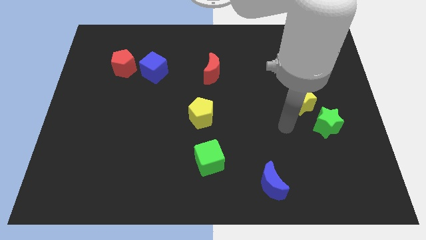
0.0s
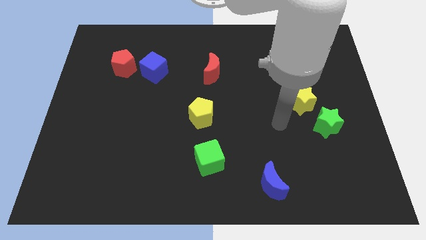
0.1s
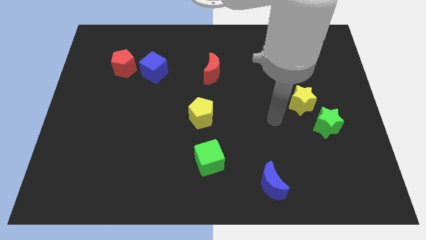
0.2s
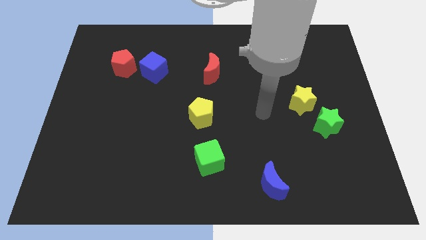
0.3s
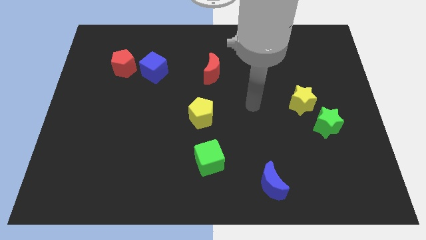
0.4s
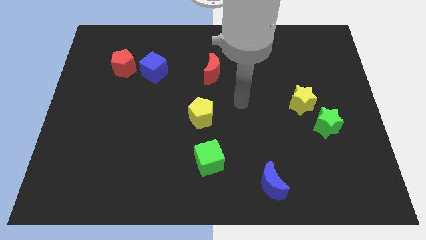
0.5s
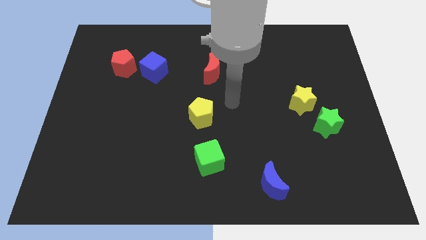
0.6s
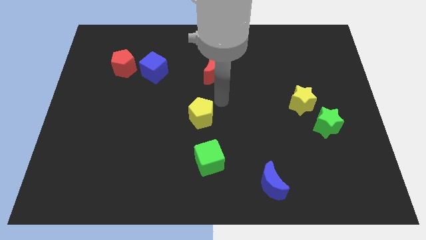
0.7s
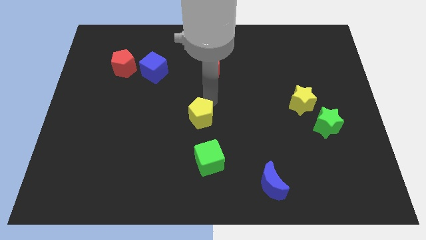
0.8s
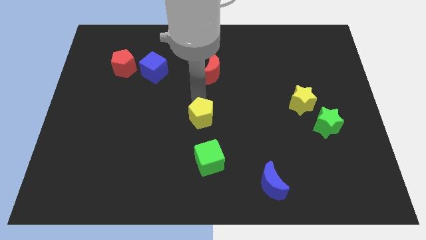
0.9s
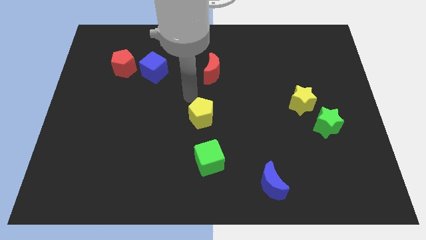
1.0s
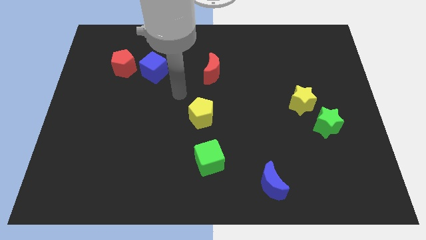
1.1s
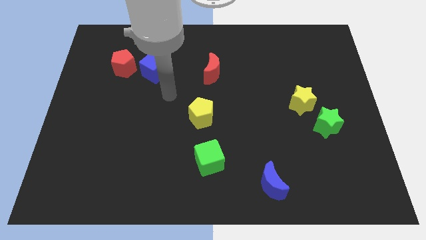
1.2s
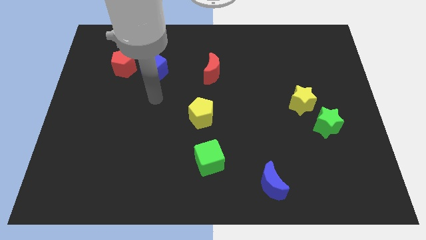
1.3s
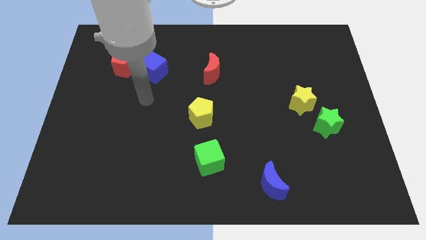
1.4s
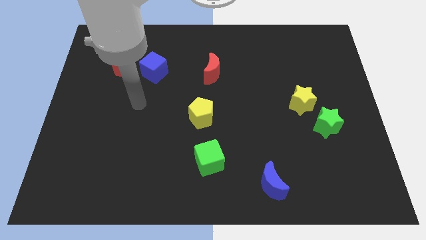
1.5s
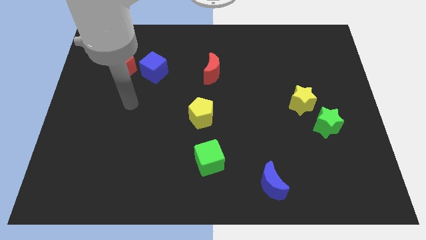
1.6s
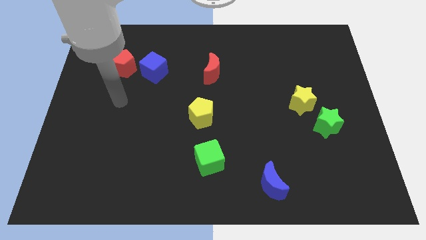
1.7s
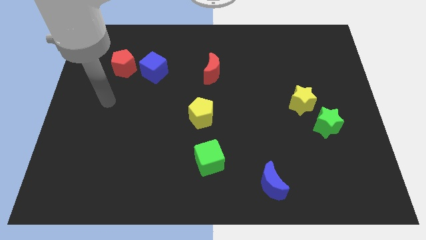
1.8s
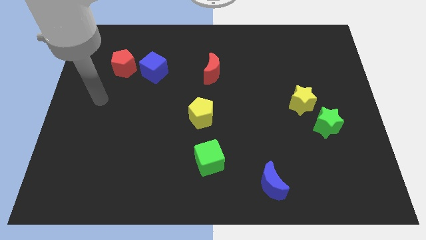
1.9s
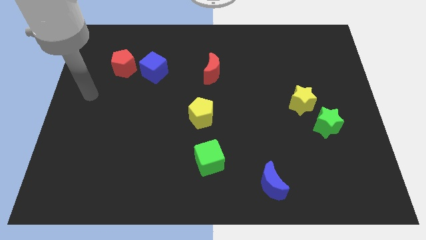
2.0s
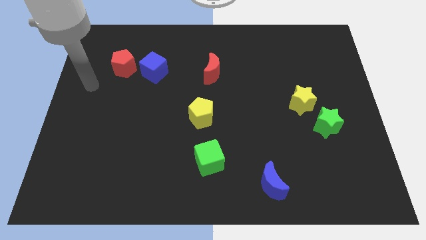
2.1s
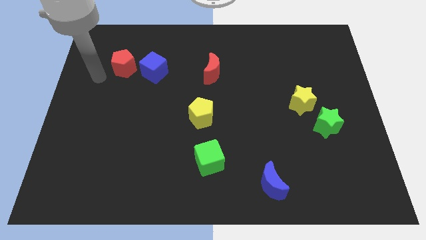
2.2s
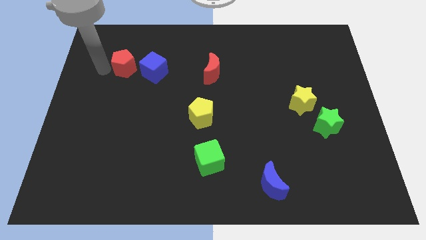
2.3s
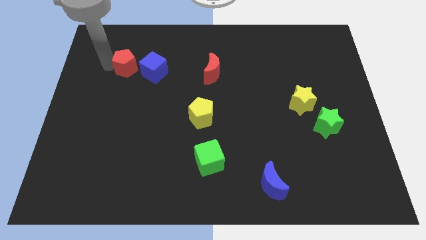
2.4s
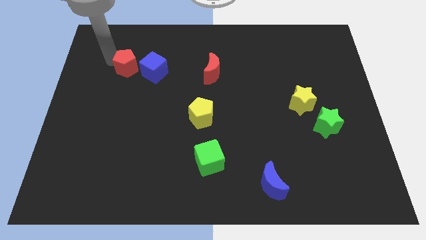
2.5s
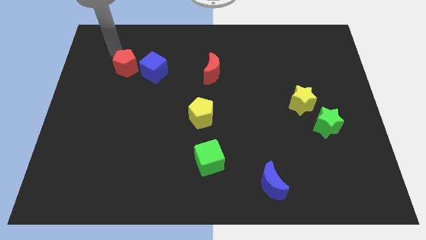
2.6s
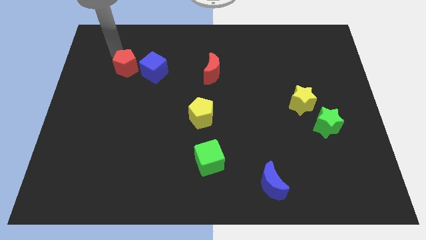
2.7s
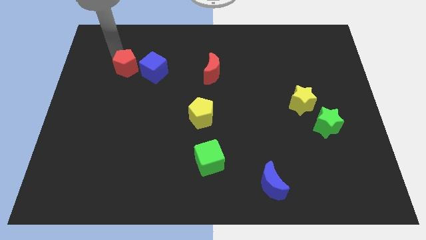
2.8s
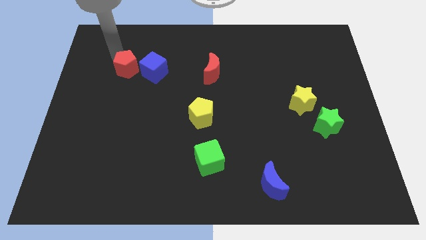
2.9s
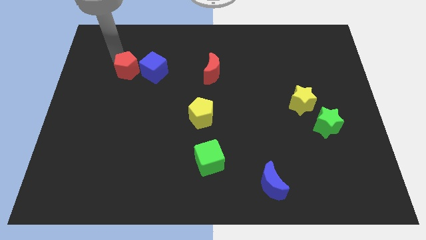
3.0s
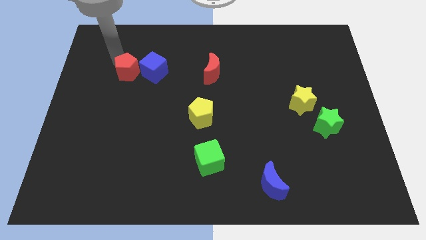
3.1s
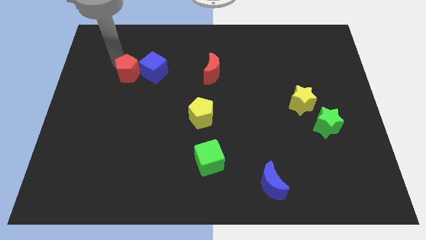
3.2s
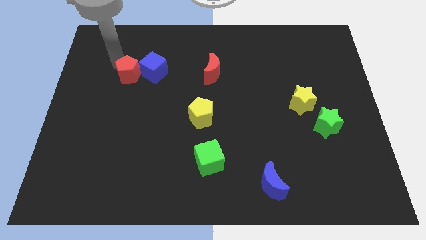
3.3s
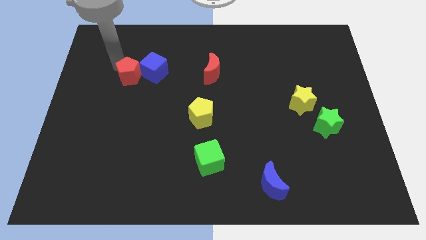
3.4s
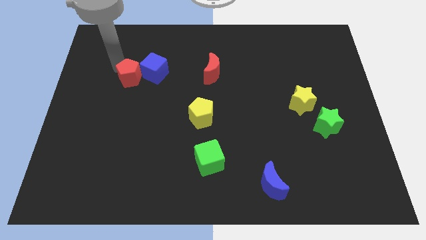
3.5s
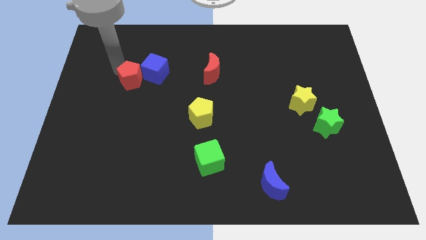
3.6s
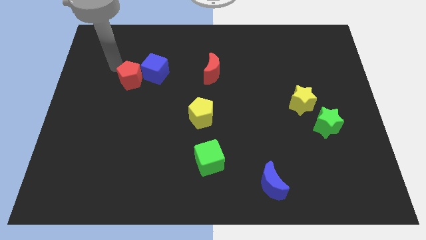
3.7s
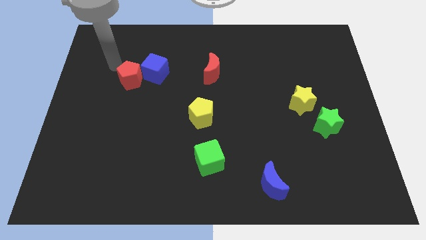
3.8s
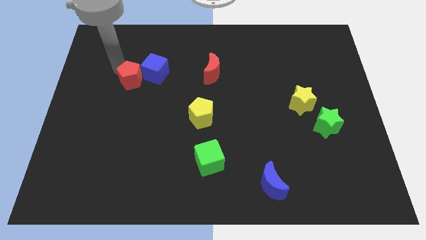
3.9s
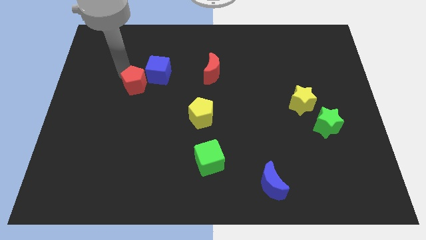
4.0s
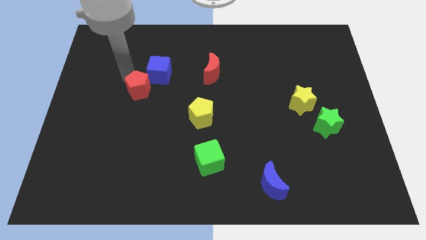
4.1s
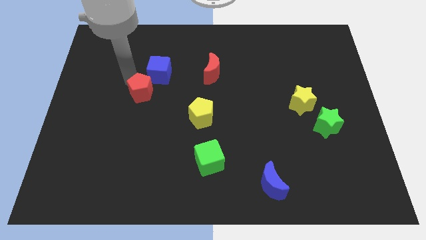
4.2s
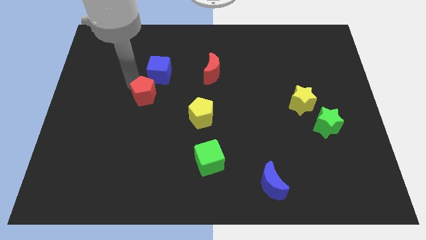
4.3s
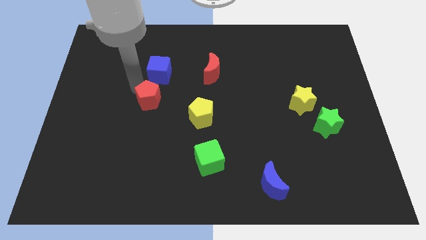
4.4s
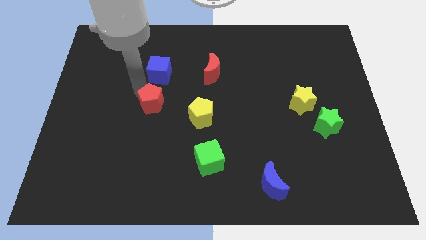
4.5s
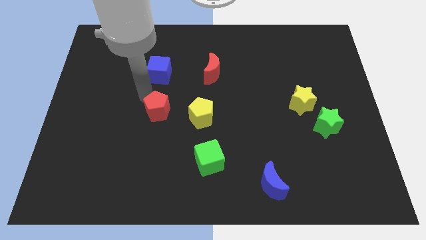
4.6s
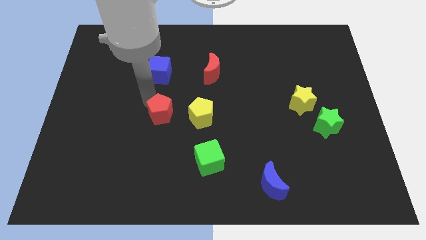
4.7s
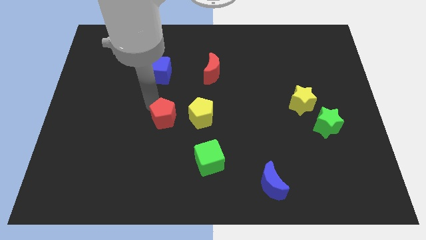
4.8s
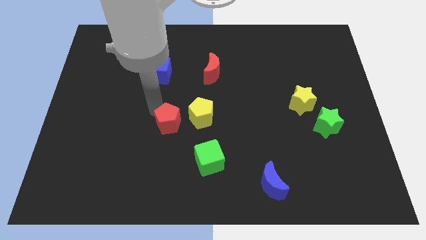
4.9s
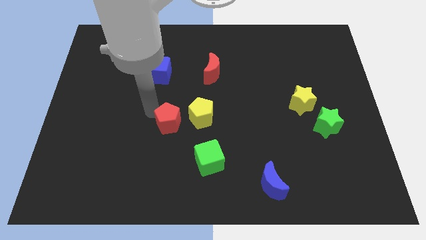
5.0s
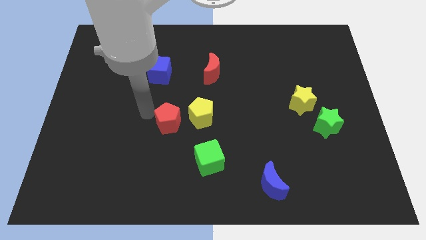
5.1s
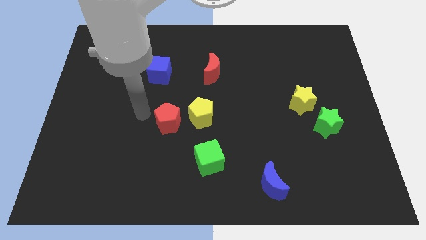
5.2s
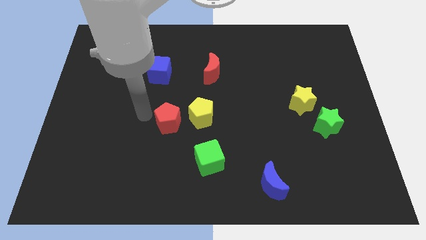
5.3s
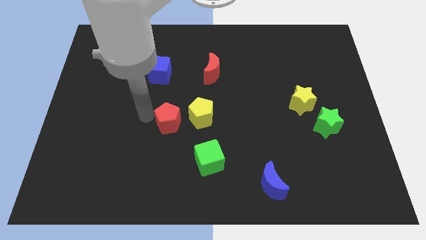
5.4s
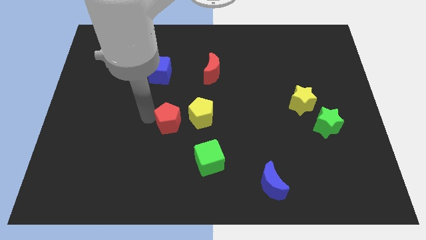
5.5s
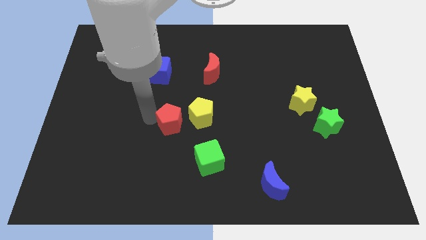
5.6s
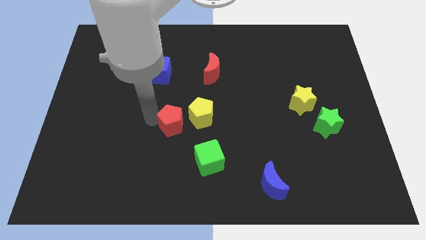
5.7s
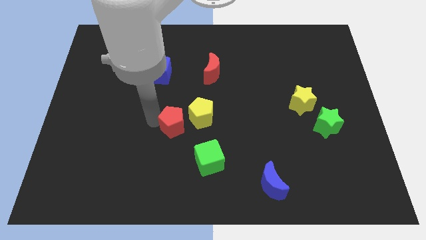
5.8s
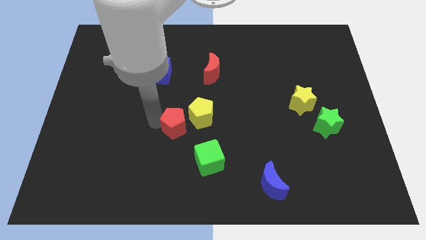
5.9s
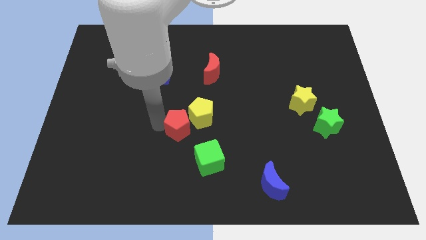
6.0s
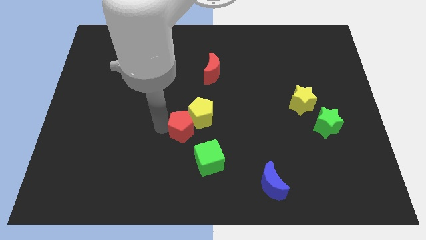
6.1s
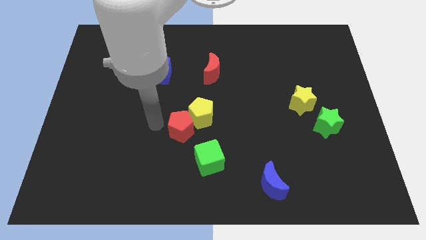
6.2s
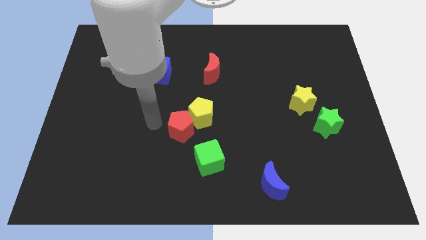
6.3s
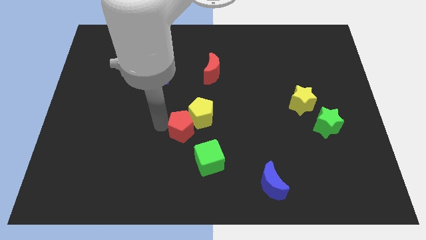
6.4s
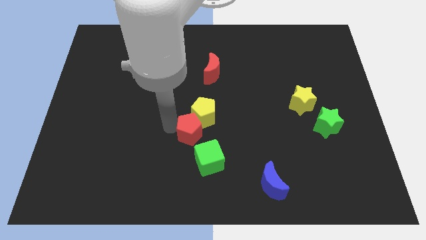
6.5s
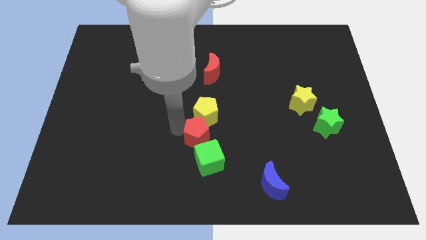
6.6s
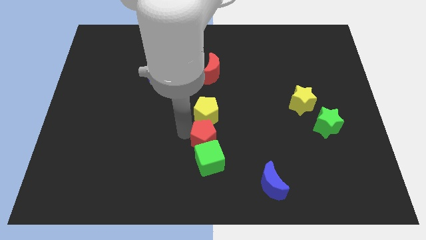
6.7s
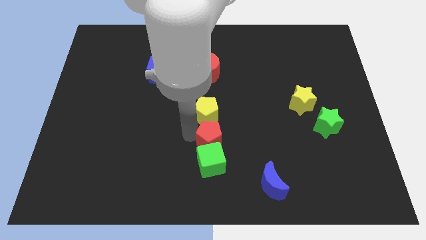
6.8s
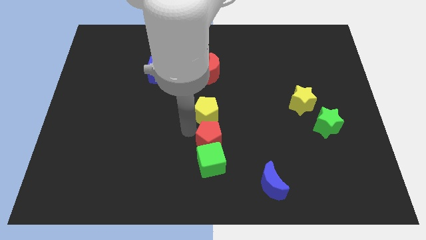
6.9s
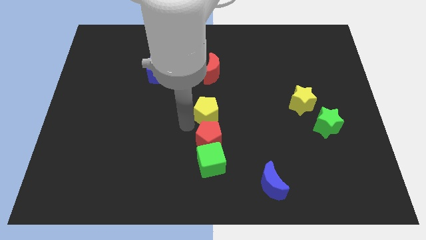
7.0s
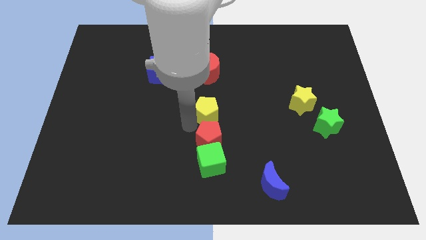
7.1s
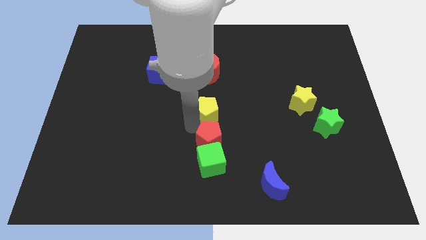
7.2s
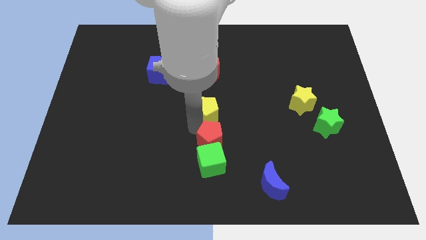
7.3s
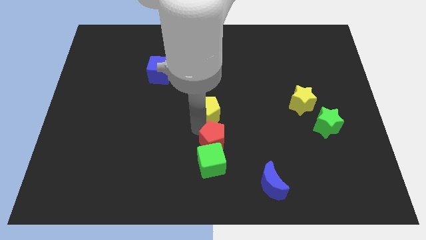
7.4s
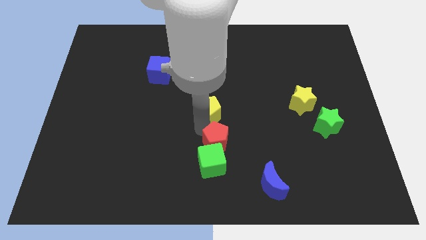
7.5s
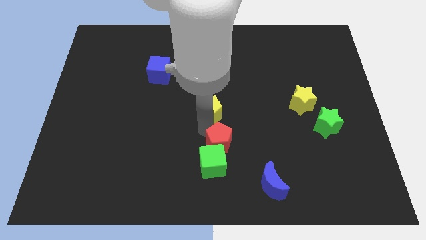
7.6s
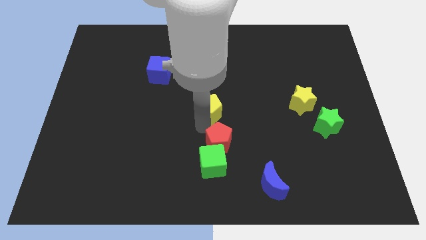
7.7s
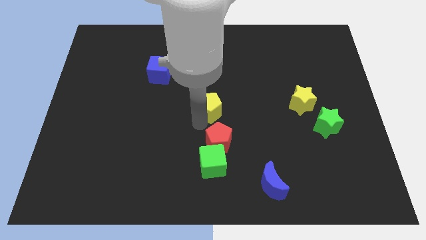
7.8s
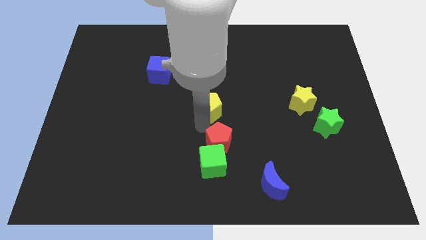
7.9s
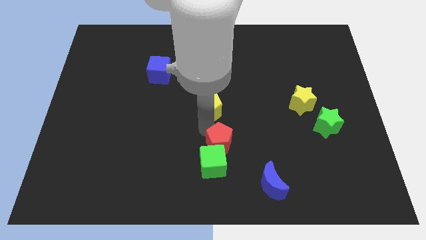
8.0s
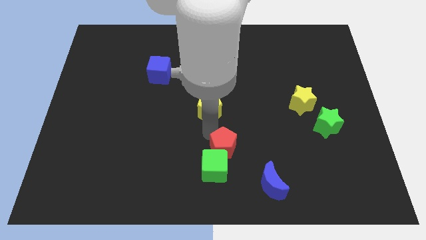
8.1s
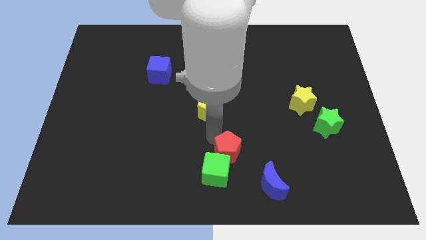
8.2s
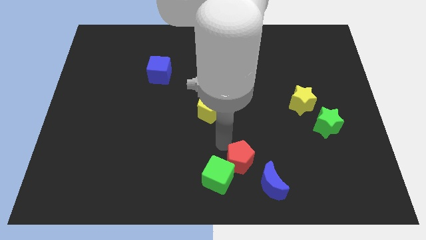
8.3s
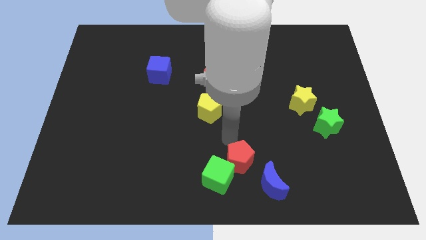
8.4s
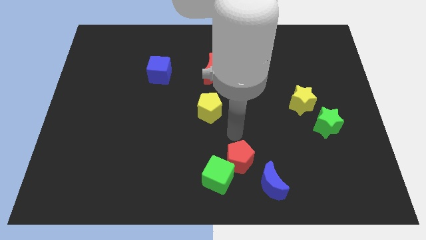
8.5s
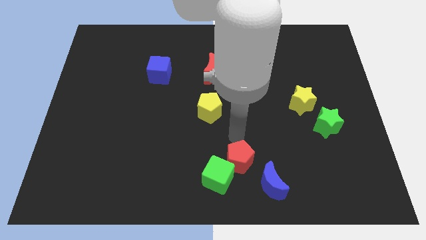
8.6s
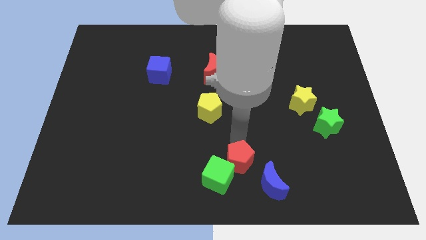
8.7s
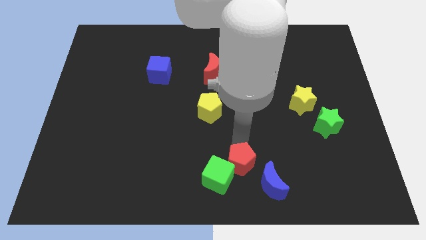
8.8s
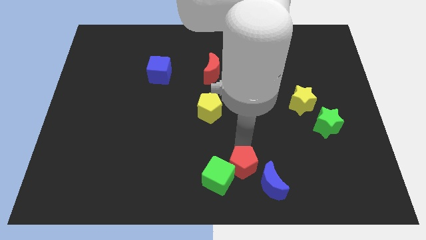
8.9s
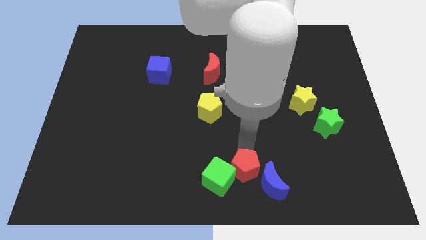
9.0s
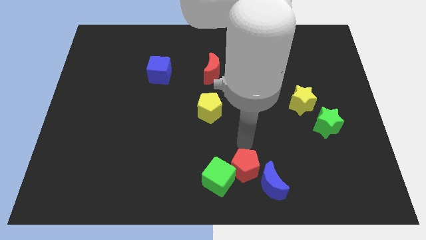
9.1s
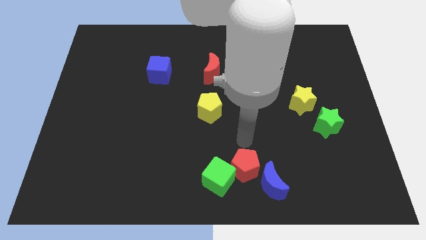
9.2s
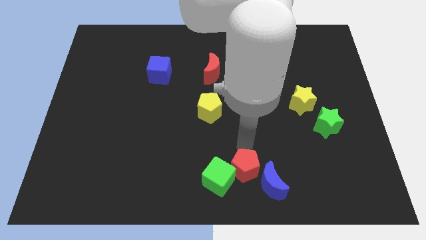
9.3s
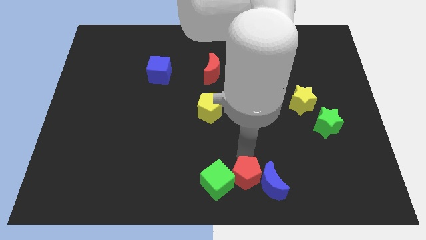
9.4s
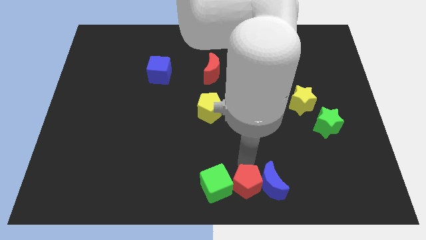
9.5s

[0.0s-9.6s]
put the red pentagon to the bottom right of the green cube
